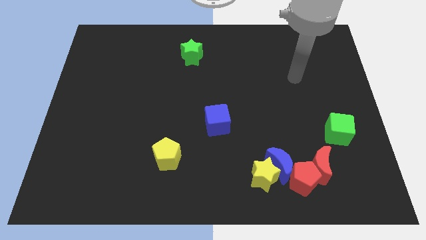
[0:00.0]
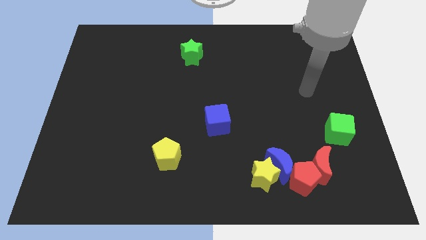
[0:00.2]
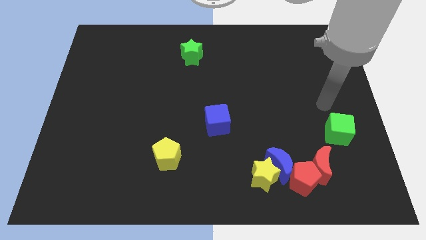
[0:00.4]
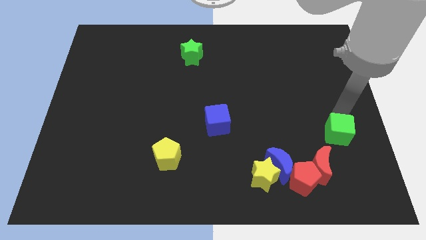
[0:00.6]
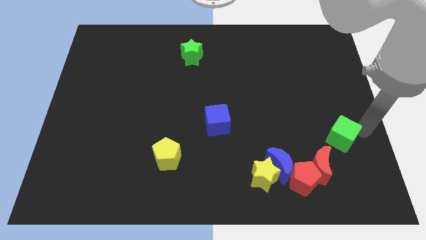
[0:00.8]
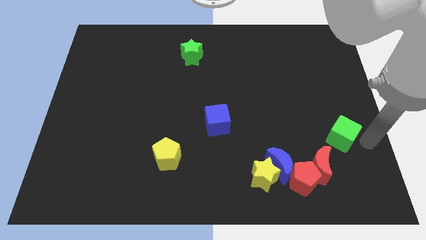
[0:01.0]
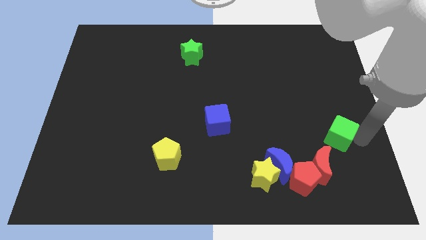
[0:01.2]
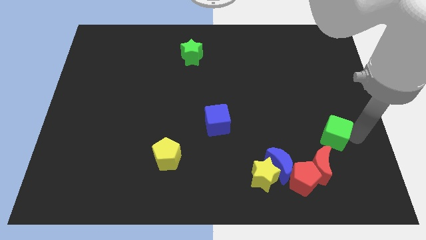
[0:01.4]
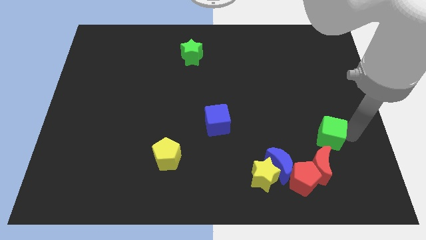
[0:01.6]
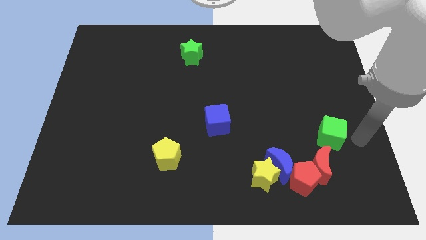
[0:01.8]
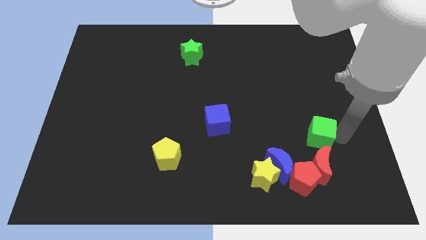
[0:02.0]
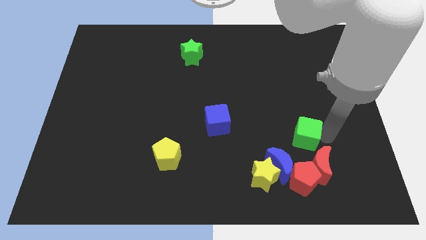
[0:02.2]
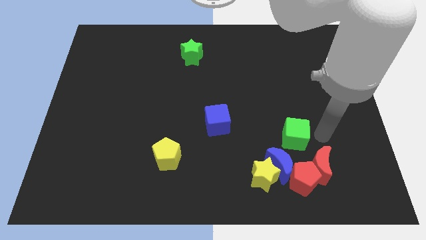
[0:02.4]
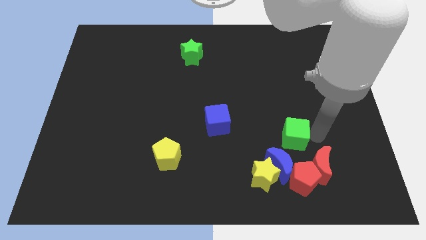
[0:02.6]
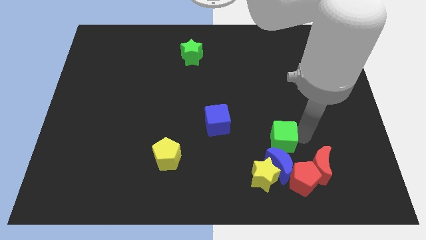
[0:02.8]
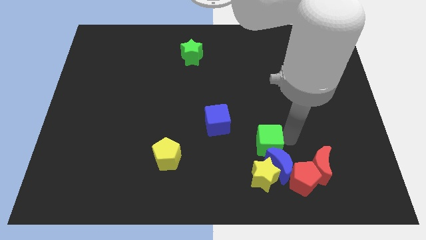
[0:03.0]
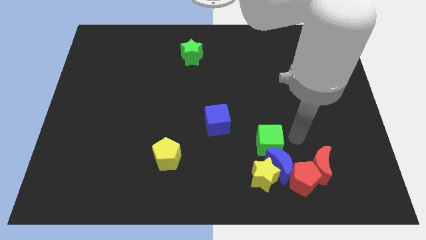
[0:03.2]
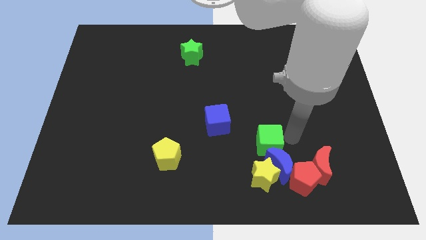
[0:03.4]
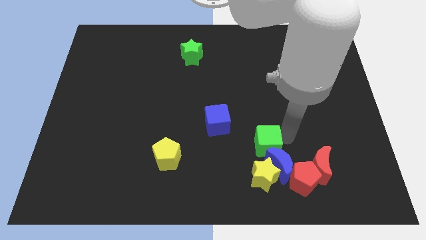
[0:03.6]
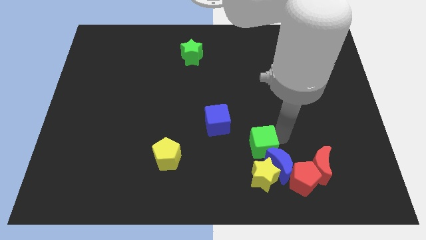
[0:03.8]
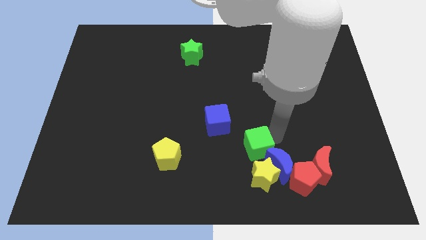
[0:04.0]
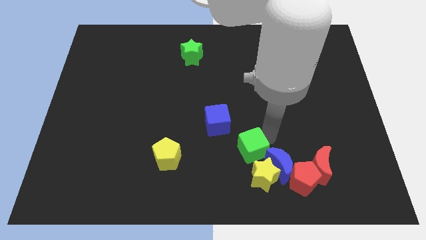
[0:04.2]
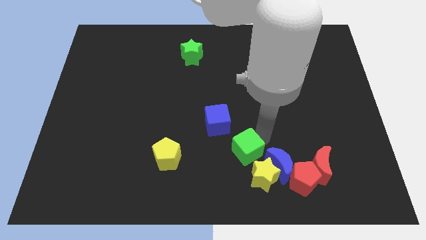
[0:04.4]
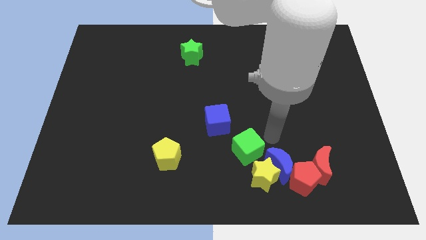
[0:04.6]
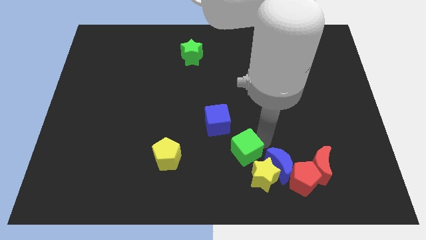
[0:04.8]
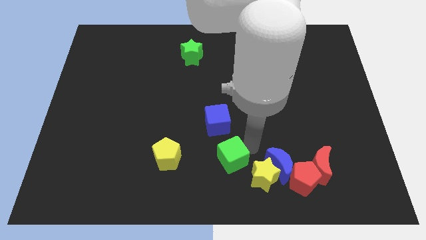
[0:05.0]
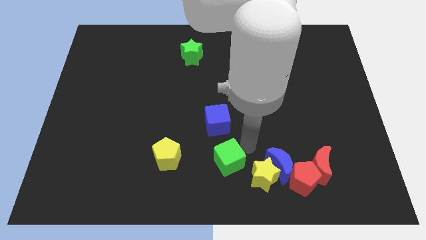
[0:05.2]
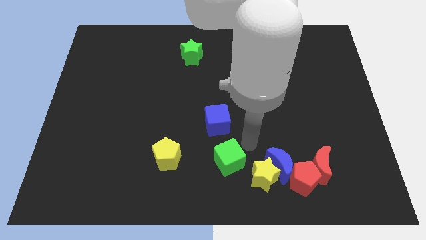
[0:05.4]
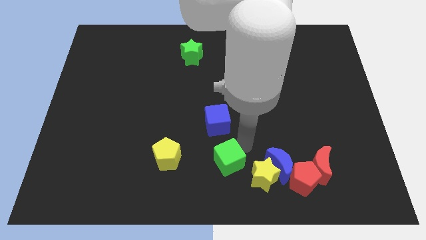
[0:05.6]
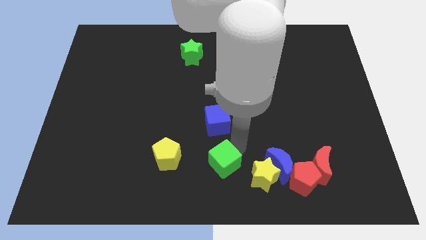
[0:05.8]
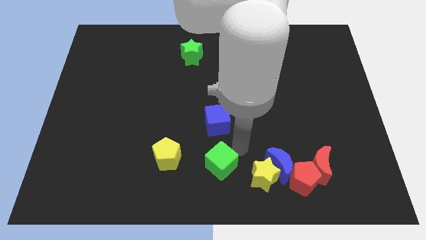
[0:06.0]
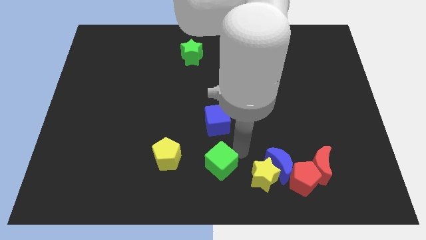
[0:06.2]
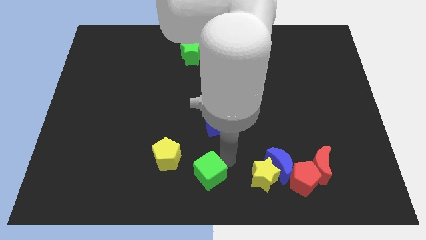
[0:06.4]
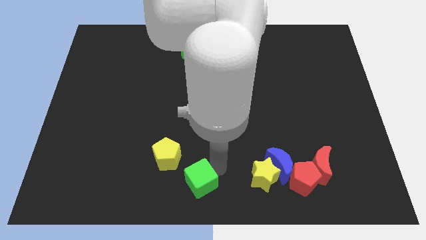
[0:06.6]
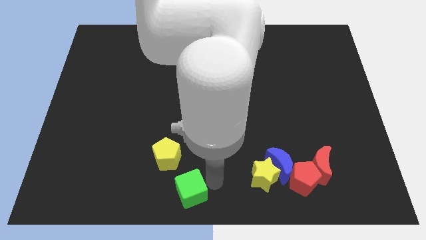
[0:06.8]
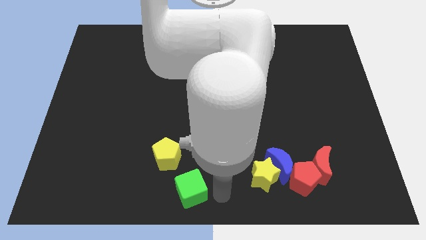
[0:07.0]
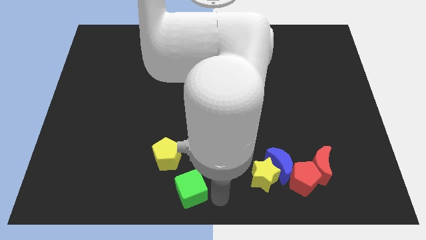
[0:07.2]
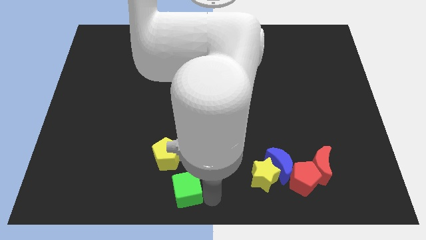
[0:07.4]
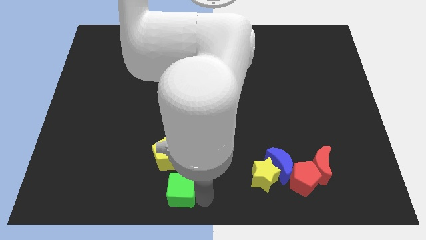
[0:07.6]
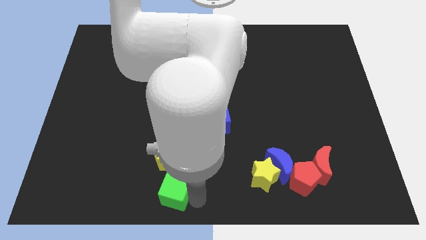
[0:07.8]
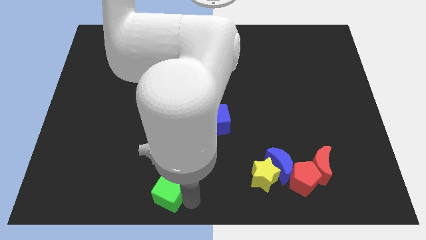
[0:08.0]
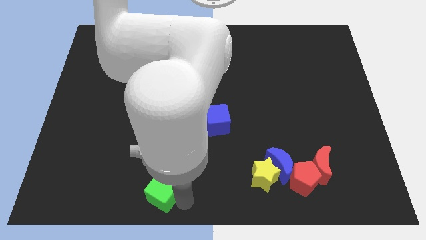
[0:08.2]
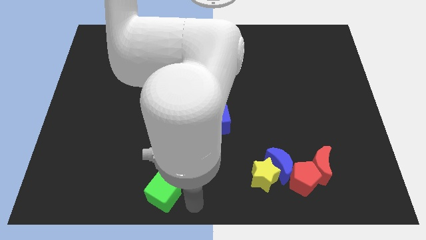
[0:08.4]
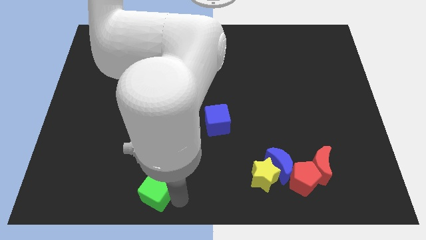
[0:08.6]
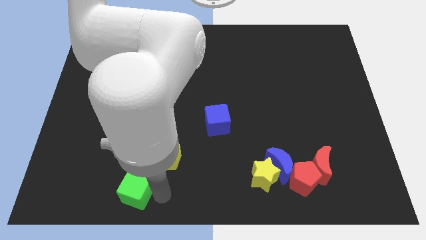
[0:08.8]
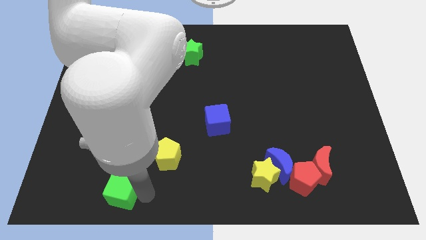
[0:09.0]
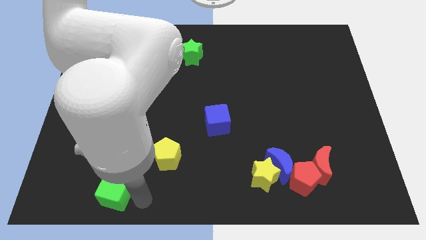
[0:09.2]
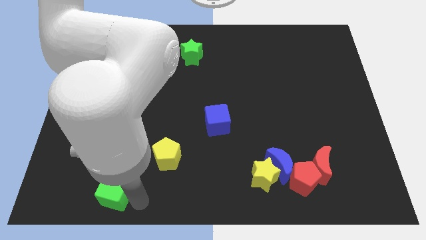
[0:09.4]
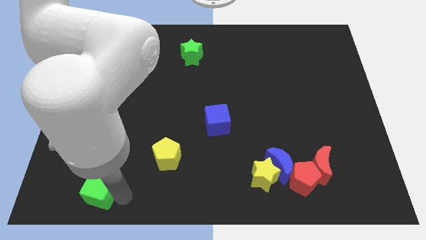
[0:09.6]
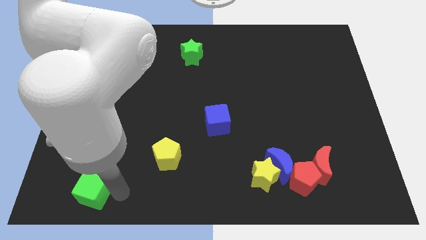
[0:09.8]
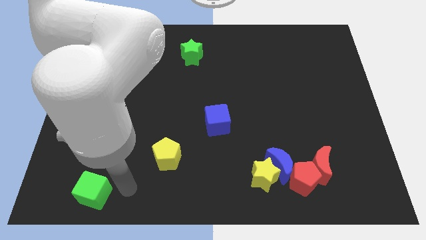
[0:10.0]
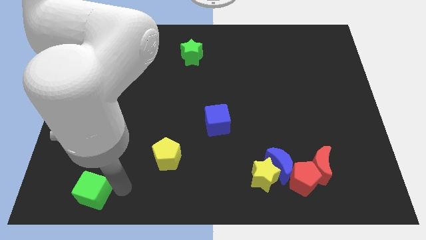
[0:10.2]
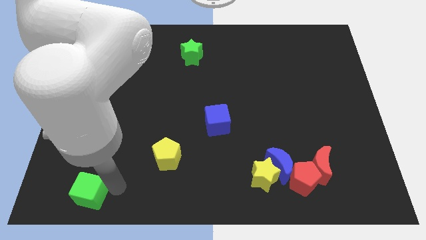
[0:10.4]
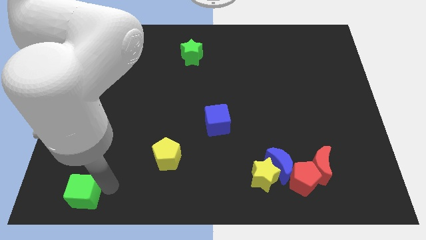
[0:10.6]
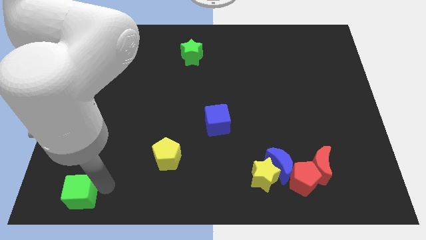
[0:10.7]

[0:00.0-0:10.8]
push the green cube to the bottom left corner
